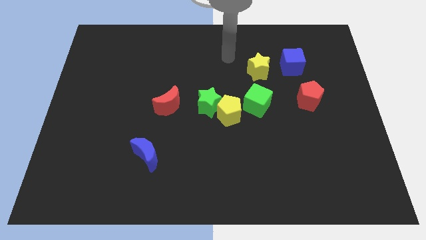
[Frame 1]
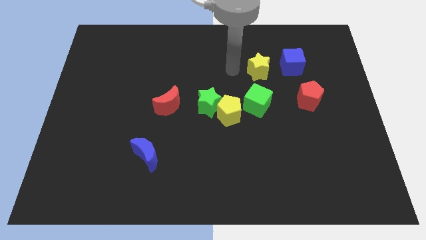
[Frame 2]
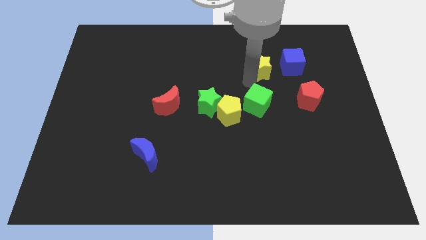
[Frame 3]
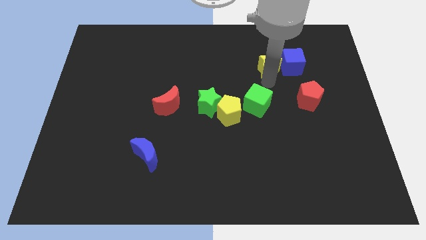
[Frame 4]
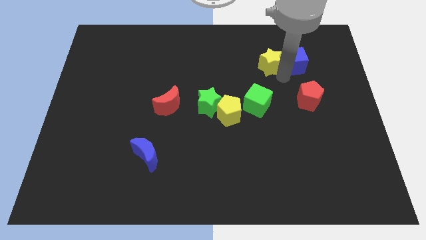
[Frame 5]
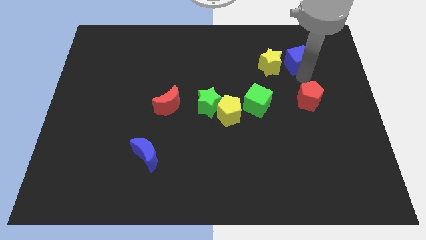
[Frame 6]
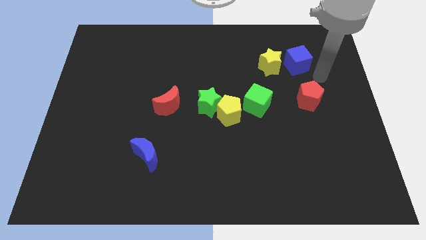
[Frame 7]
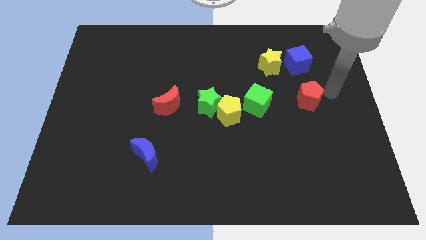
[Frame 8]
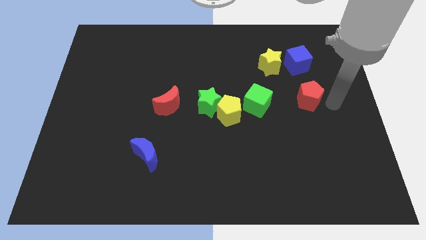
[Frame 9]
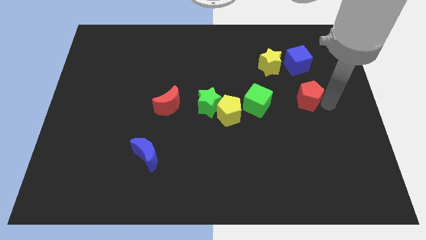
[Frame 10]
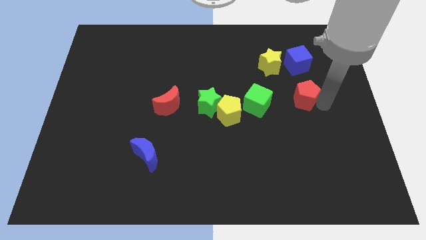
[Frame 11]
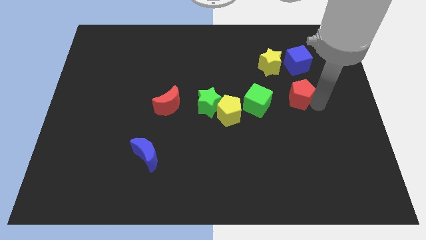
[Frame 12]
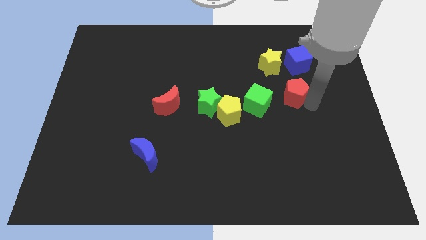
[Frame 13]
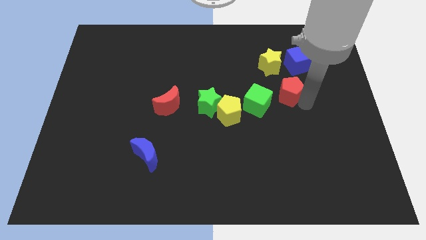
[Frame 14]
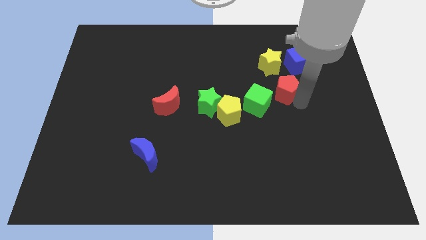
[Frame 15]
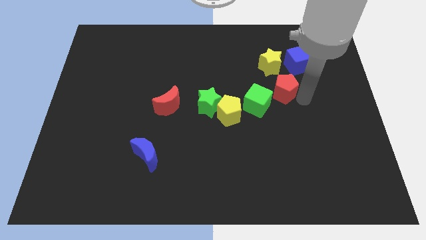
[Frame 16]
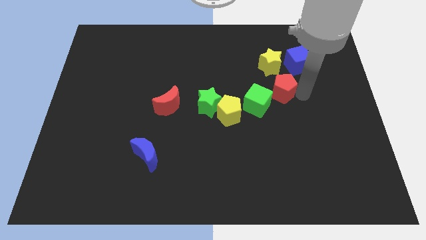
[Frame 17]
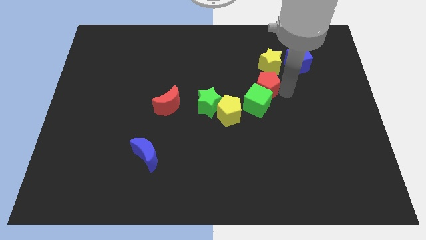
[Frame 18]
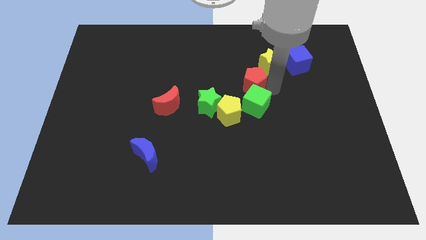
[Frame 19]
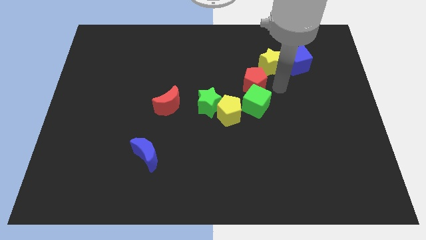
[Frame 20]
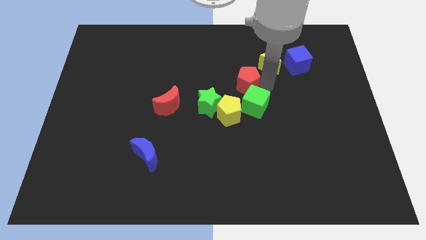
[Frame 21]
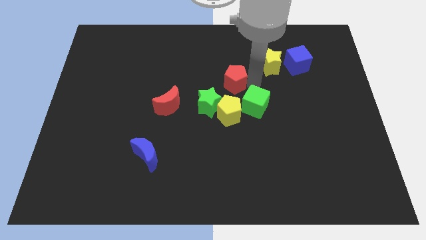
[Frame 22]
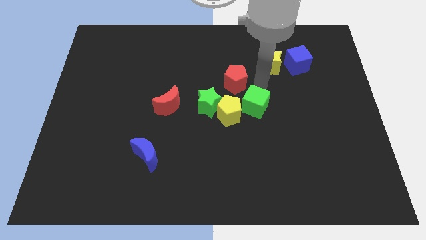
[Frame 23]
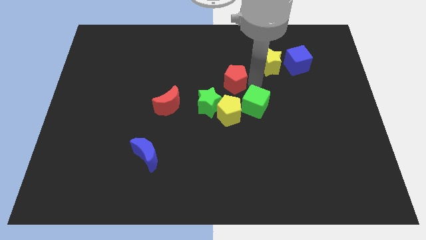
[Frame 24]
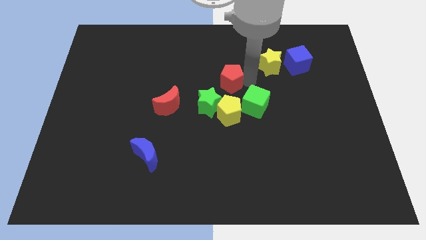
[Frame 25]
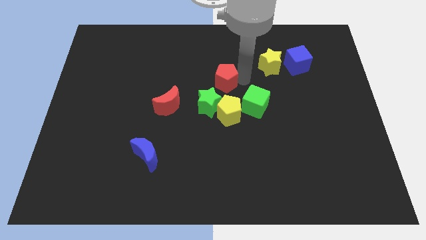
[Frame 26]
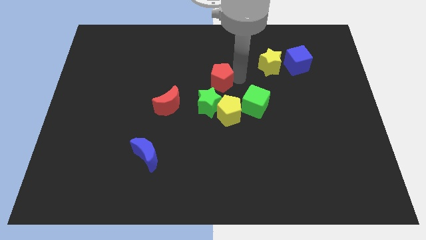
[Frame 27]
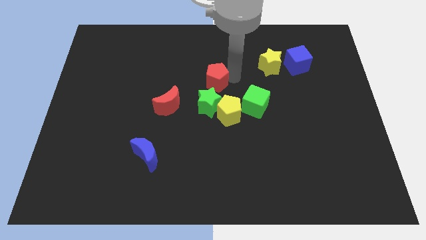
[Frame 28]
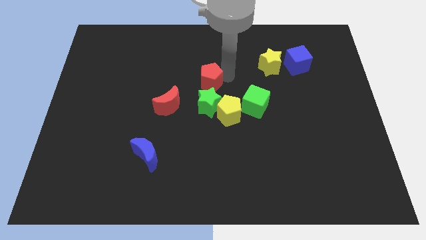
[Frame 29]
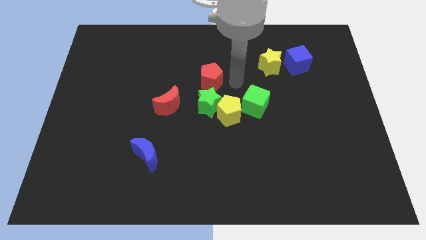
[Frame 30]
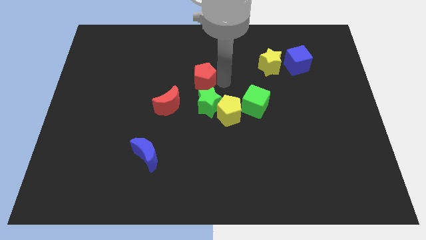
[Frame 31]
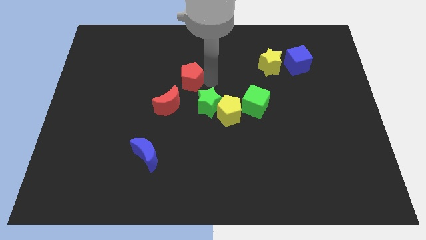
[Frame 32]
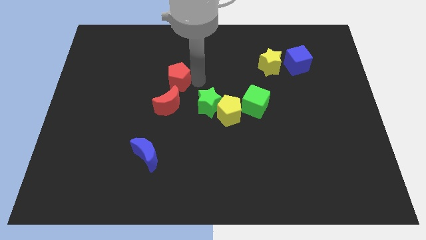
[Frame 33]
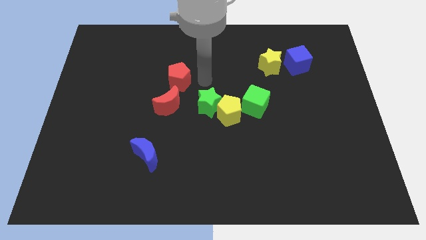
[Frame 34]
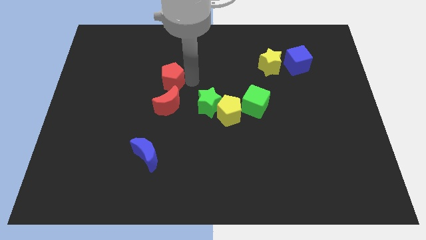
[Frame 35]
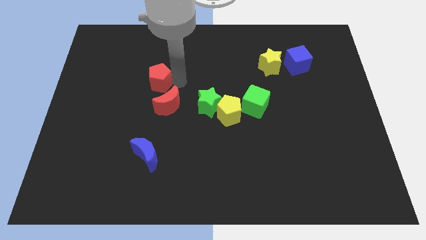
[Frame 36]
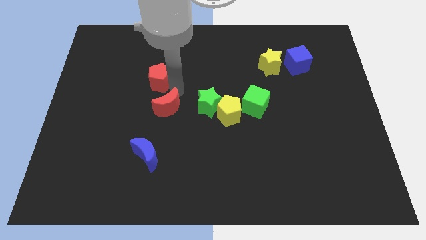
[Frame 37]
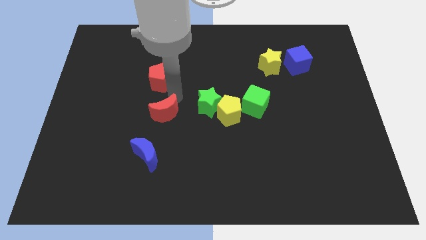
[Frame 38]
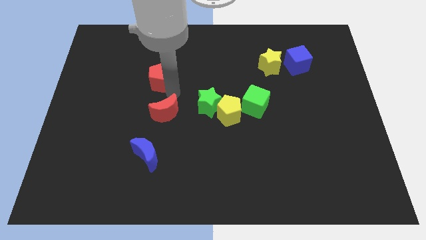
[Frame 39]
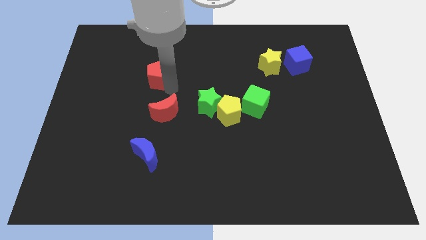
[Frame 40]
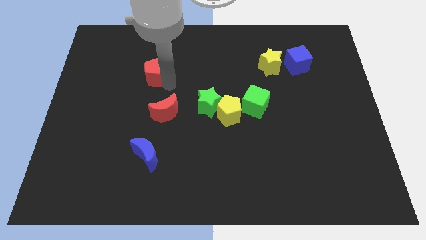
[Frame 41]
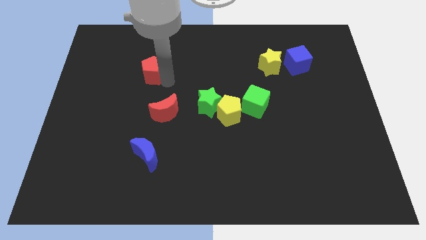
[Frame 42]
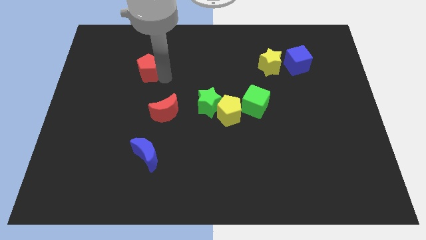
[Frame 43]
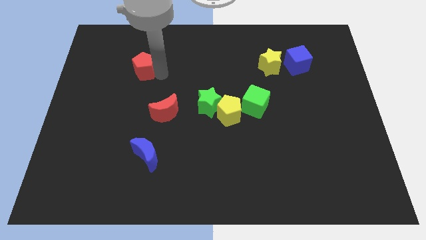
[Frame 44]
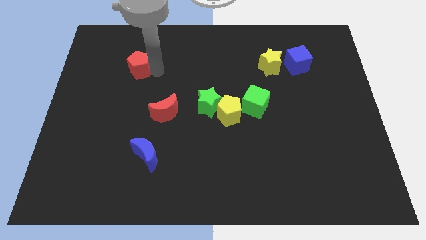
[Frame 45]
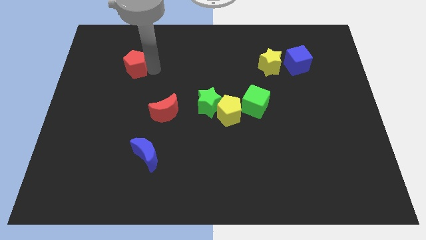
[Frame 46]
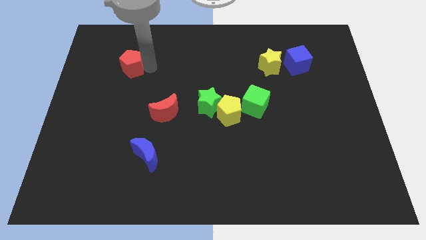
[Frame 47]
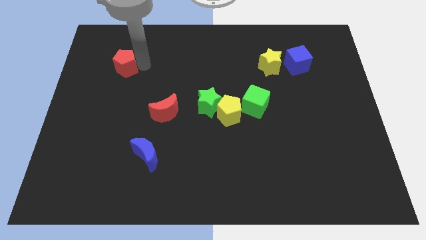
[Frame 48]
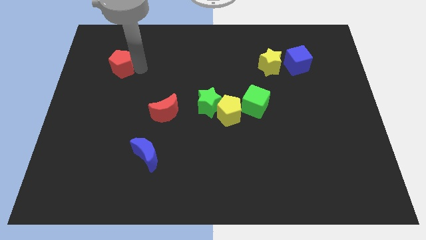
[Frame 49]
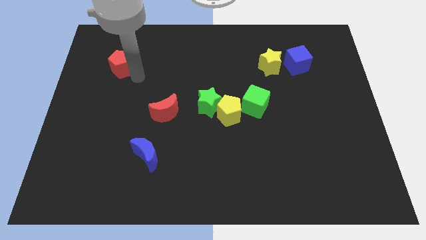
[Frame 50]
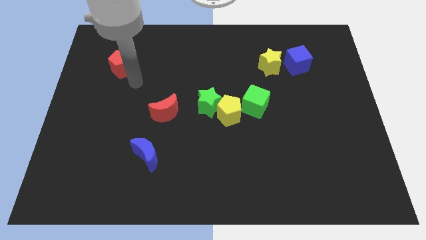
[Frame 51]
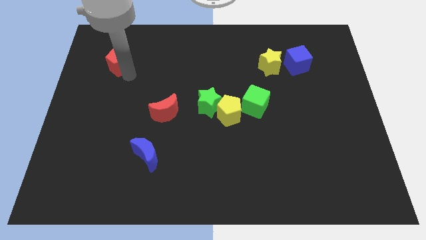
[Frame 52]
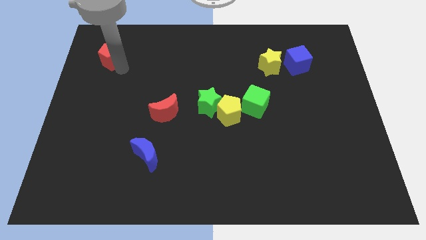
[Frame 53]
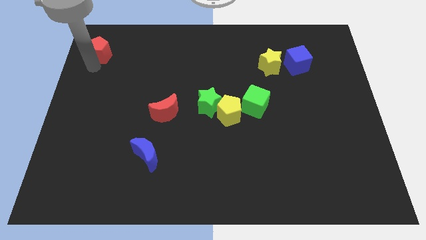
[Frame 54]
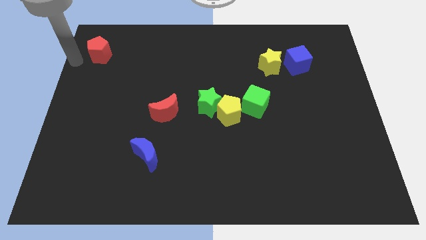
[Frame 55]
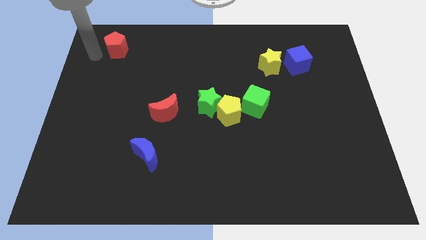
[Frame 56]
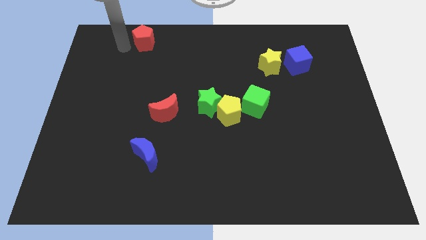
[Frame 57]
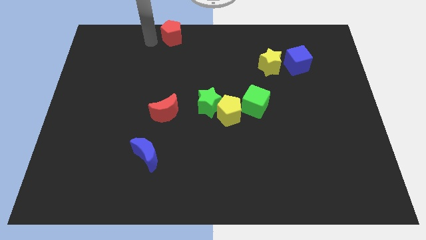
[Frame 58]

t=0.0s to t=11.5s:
put the red pentagon to the towards your base

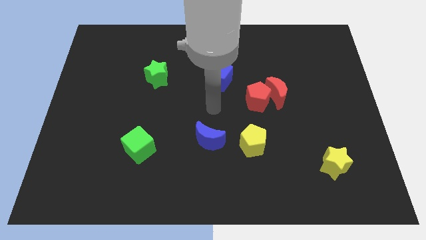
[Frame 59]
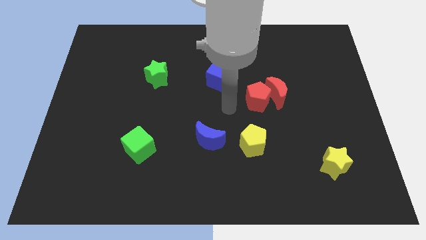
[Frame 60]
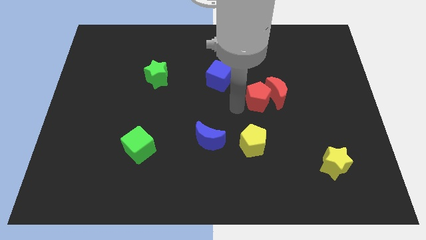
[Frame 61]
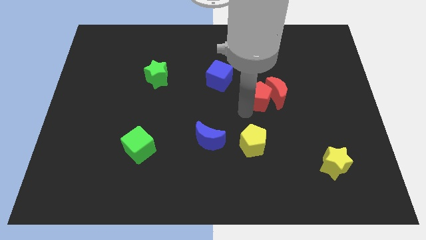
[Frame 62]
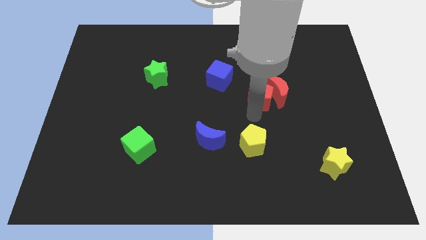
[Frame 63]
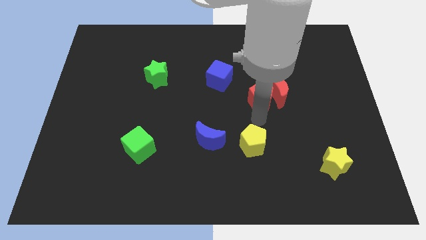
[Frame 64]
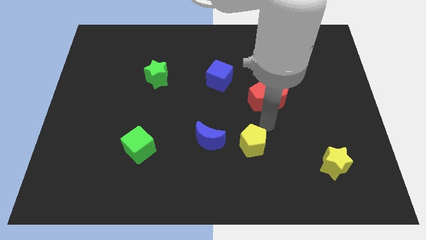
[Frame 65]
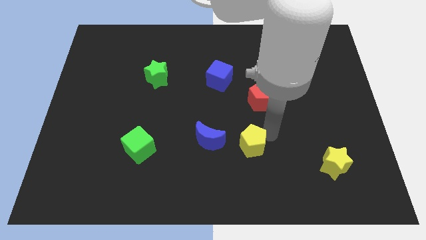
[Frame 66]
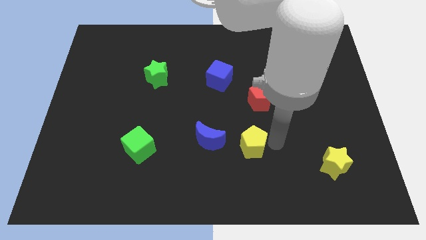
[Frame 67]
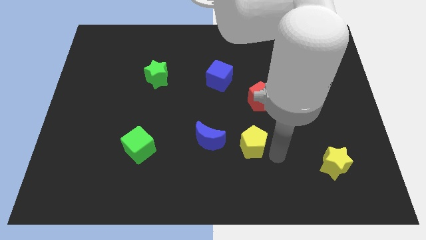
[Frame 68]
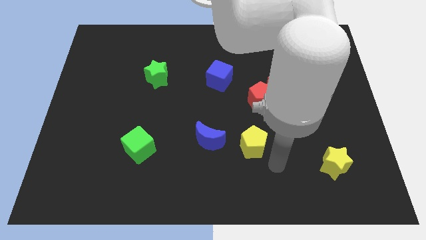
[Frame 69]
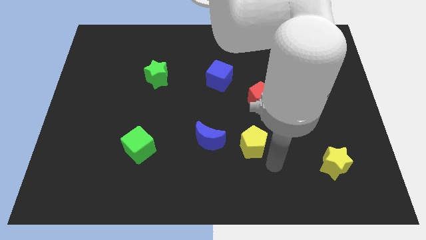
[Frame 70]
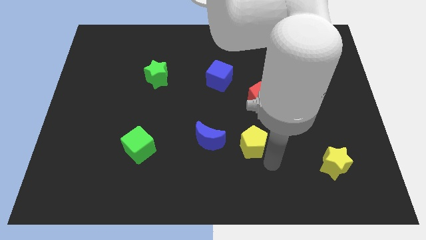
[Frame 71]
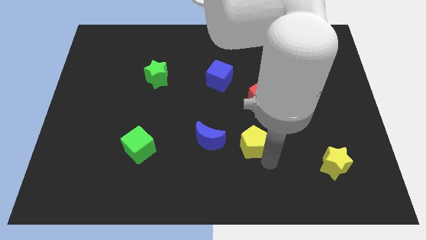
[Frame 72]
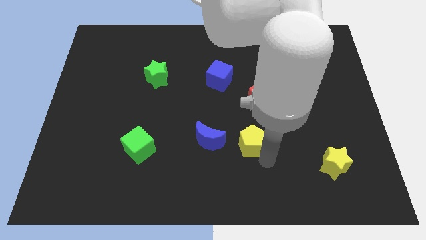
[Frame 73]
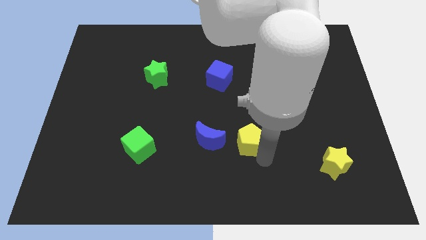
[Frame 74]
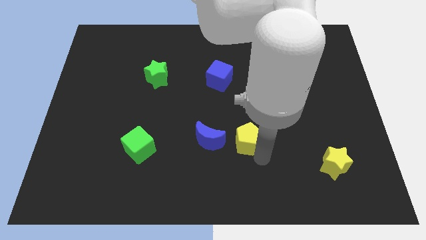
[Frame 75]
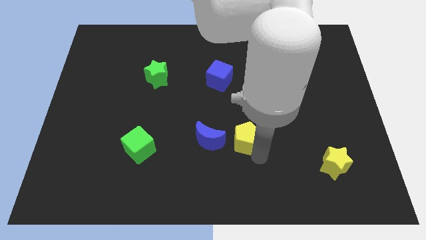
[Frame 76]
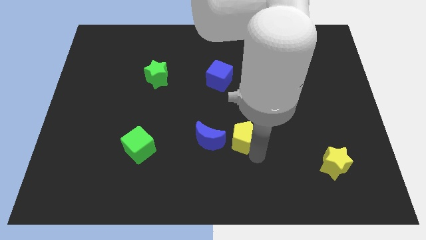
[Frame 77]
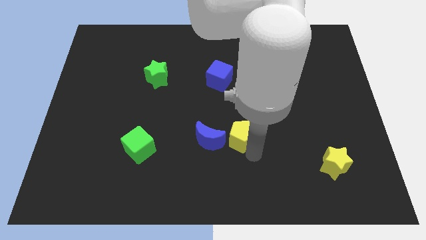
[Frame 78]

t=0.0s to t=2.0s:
slide the yellow pentagon to the center
